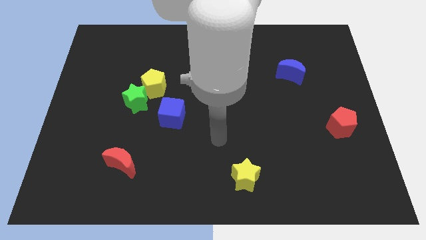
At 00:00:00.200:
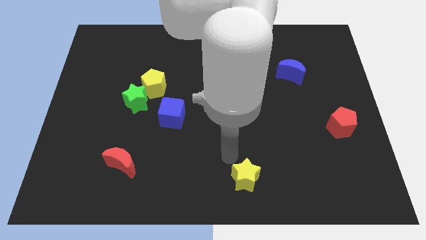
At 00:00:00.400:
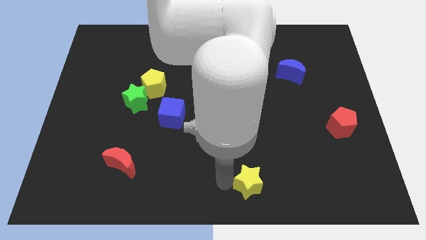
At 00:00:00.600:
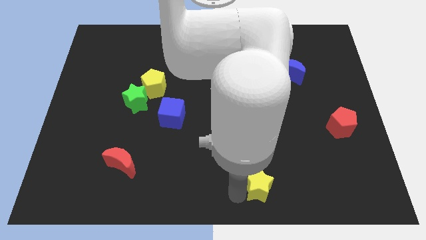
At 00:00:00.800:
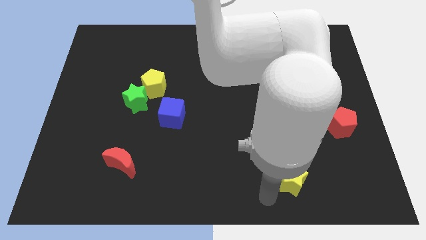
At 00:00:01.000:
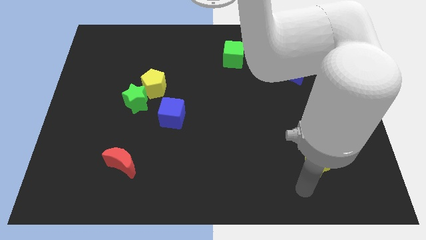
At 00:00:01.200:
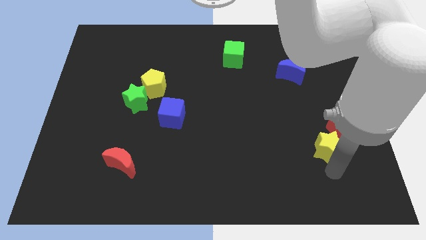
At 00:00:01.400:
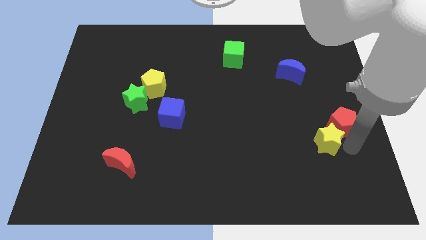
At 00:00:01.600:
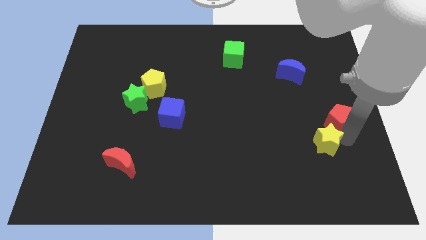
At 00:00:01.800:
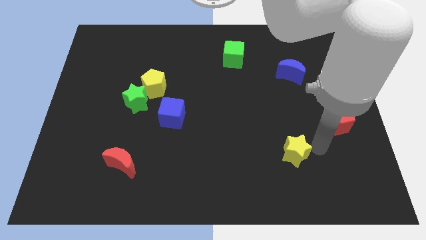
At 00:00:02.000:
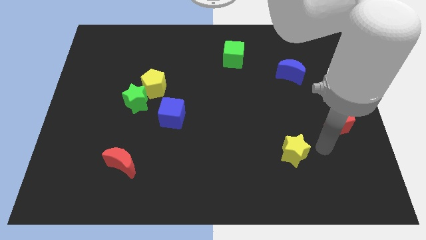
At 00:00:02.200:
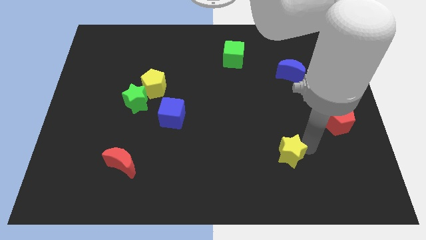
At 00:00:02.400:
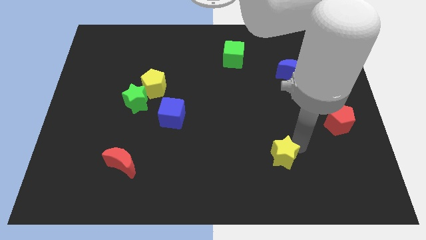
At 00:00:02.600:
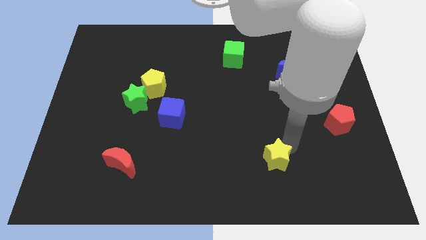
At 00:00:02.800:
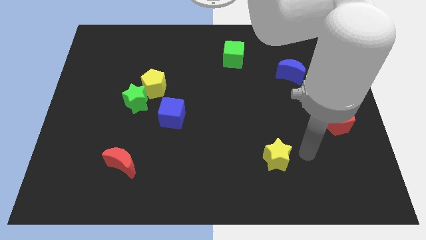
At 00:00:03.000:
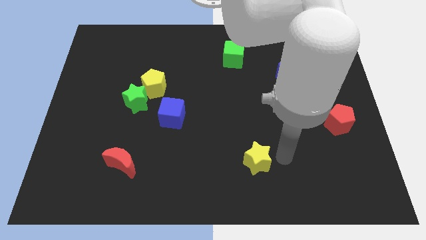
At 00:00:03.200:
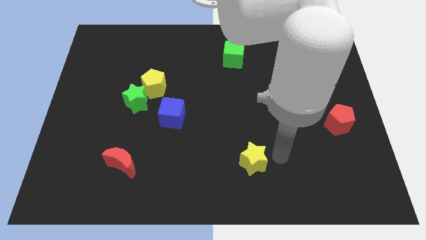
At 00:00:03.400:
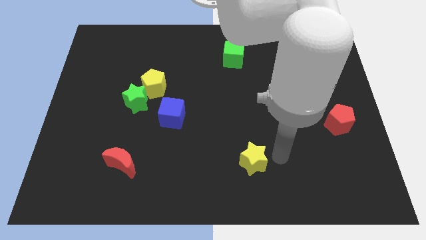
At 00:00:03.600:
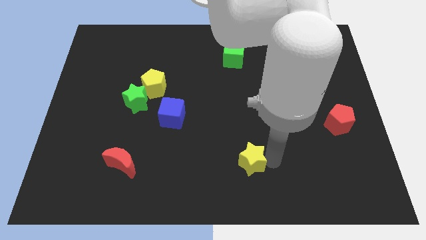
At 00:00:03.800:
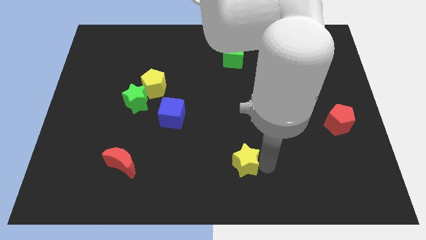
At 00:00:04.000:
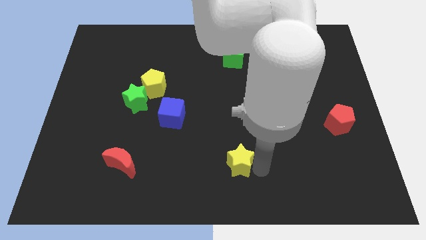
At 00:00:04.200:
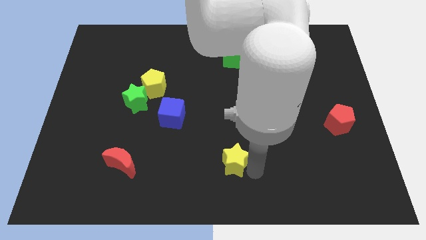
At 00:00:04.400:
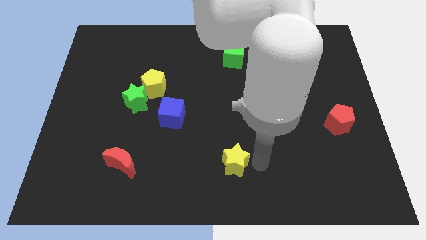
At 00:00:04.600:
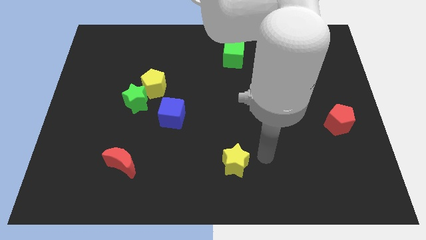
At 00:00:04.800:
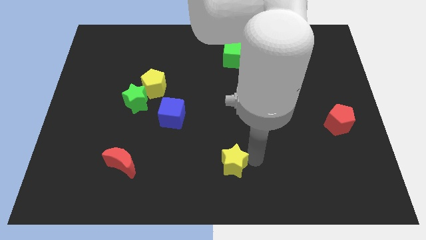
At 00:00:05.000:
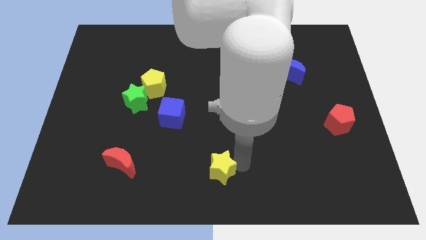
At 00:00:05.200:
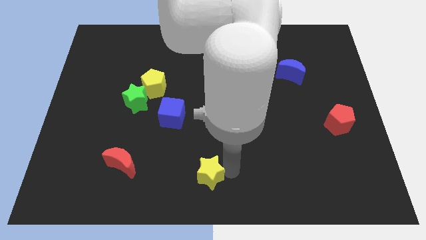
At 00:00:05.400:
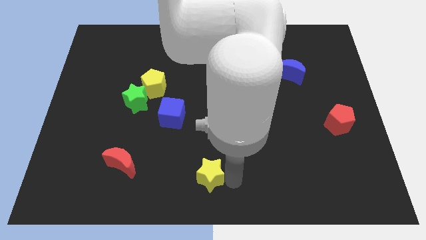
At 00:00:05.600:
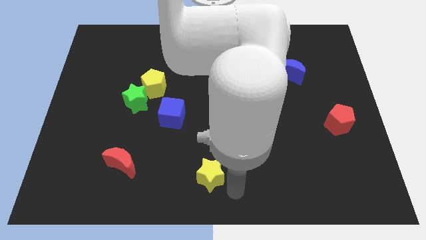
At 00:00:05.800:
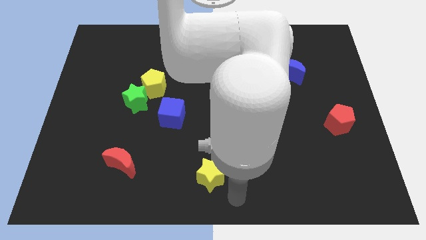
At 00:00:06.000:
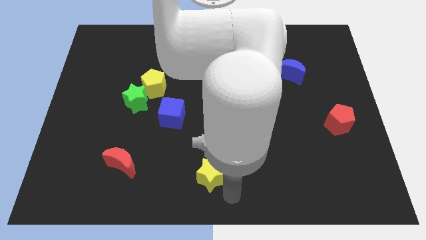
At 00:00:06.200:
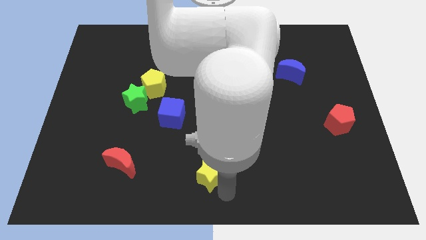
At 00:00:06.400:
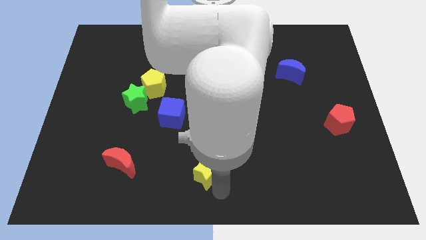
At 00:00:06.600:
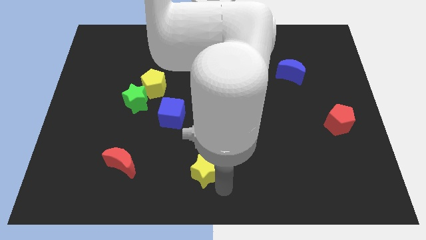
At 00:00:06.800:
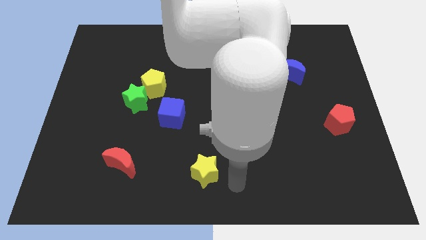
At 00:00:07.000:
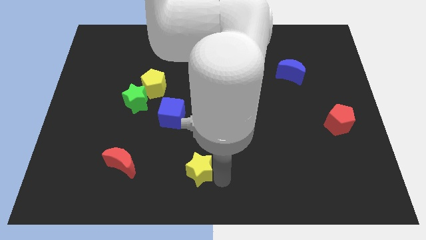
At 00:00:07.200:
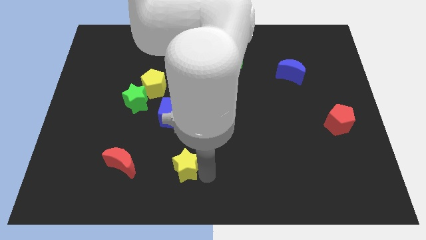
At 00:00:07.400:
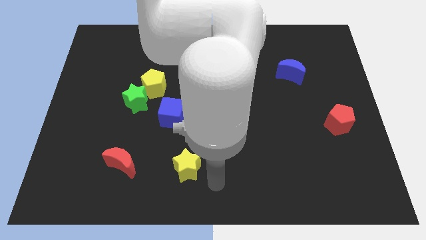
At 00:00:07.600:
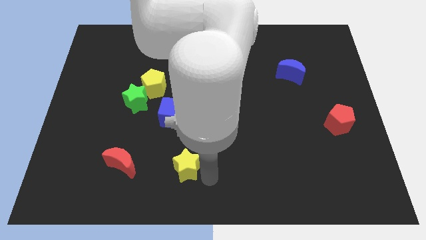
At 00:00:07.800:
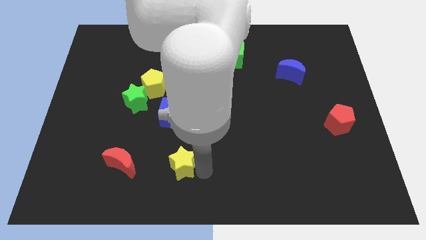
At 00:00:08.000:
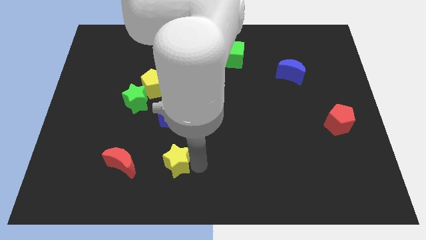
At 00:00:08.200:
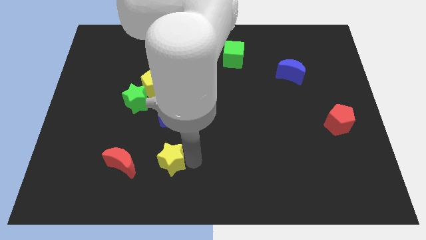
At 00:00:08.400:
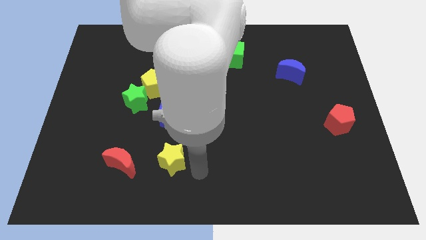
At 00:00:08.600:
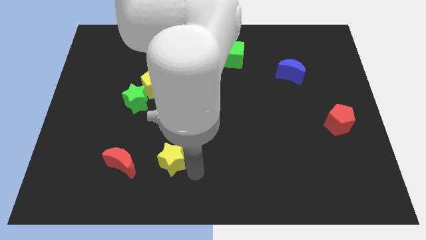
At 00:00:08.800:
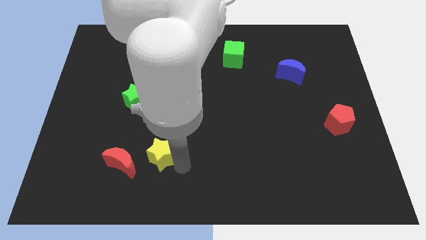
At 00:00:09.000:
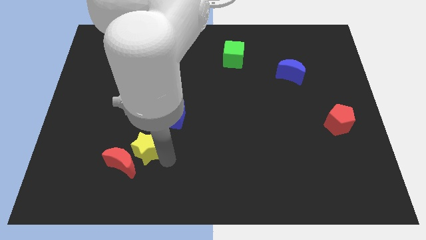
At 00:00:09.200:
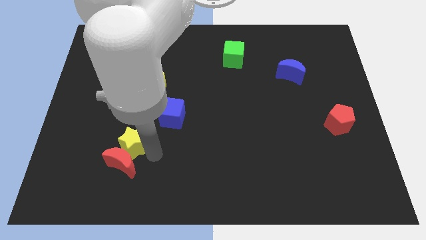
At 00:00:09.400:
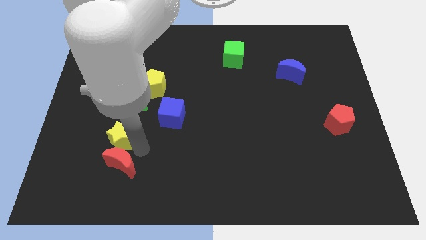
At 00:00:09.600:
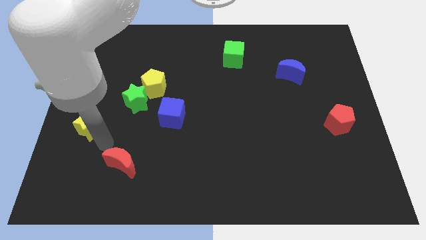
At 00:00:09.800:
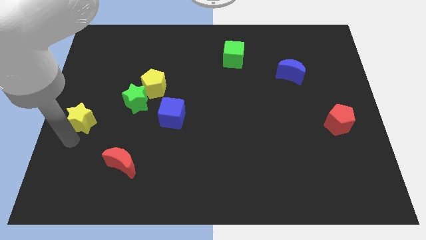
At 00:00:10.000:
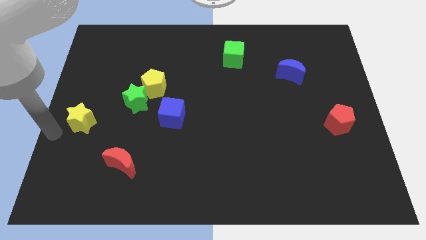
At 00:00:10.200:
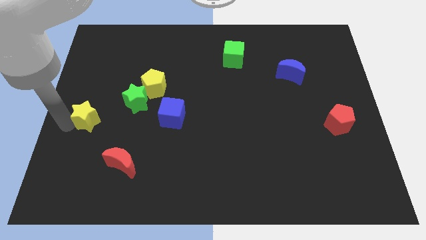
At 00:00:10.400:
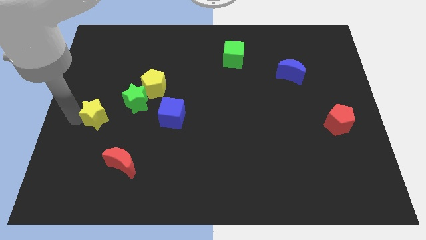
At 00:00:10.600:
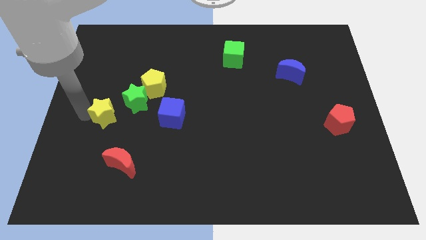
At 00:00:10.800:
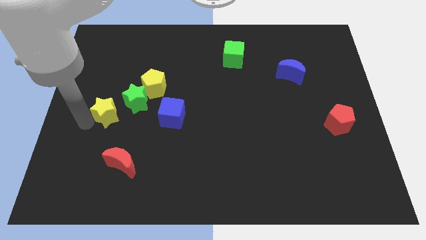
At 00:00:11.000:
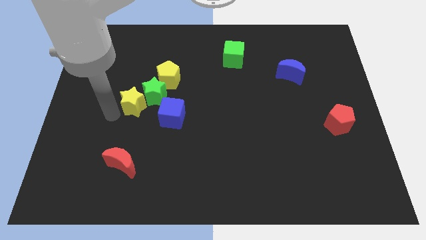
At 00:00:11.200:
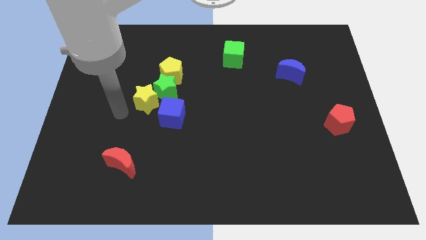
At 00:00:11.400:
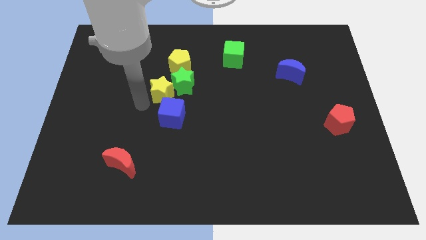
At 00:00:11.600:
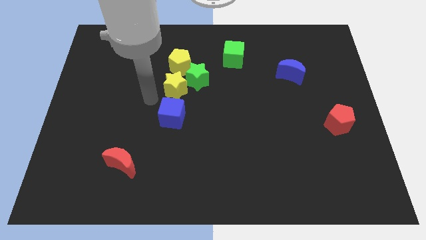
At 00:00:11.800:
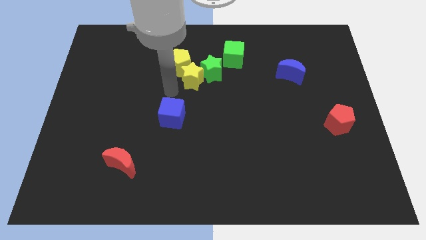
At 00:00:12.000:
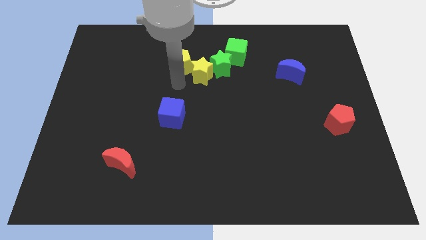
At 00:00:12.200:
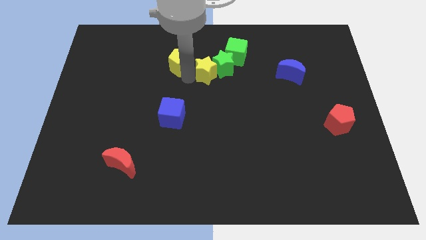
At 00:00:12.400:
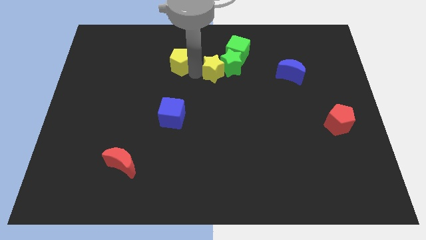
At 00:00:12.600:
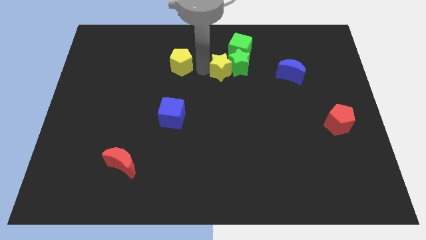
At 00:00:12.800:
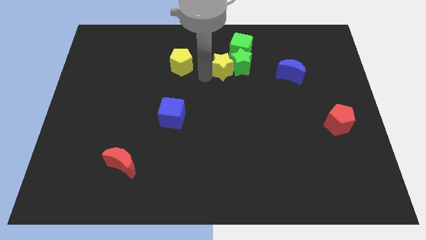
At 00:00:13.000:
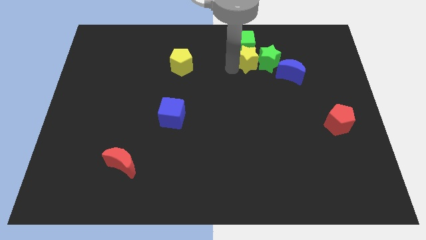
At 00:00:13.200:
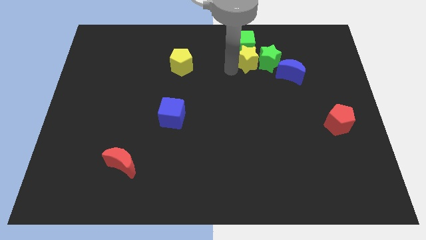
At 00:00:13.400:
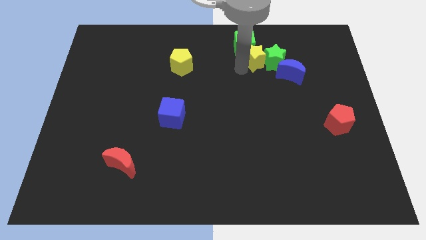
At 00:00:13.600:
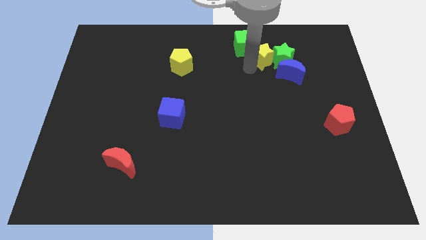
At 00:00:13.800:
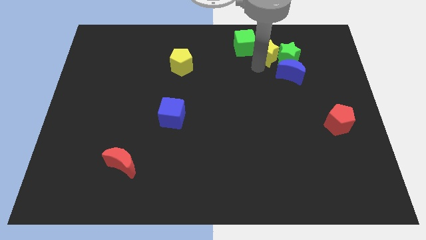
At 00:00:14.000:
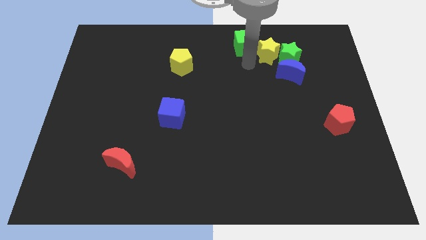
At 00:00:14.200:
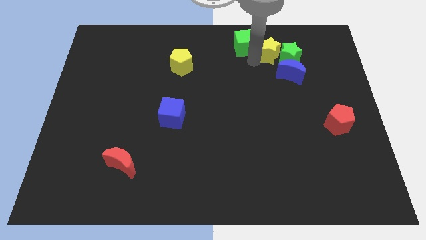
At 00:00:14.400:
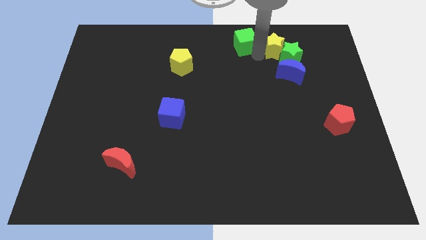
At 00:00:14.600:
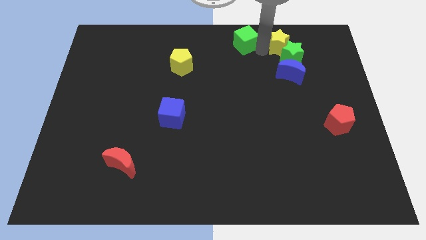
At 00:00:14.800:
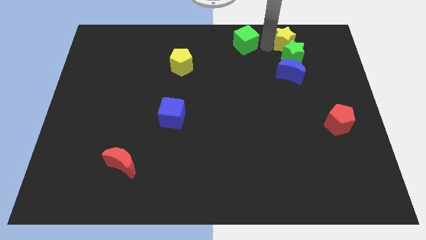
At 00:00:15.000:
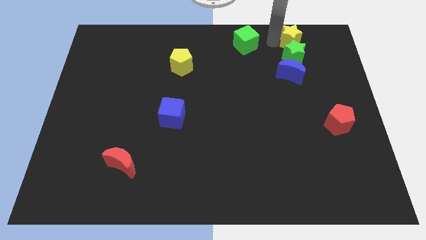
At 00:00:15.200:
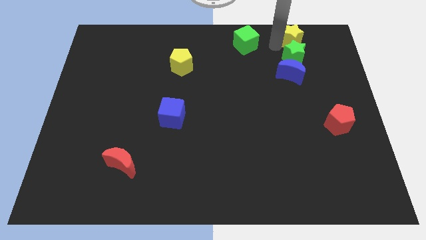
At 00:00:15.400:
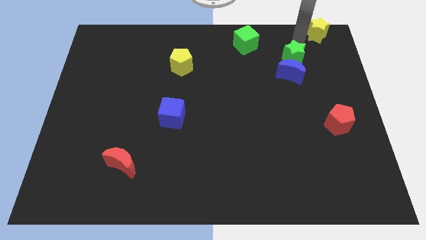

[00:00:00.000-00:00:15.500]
slide the yellow star to the upper right corner
